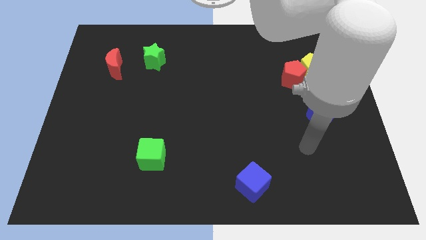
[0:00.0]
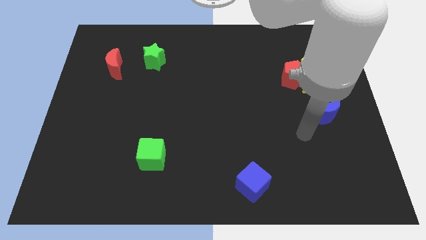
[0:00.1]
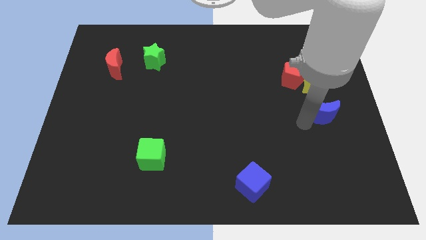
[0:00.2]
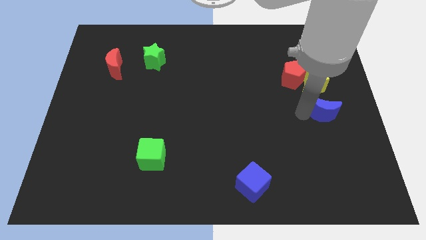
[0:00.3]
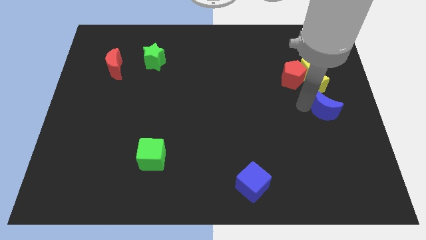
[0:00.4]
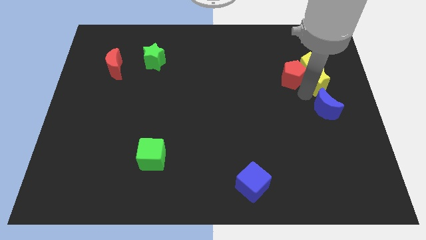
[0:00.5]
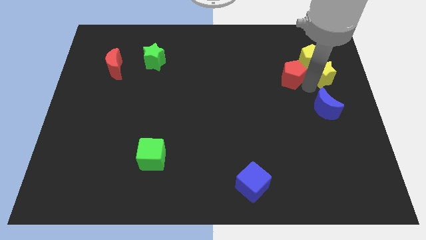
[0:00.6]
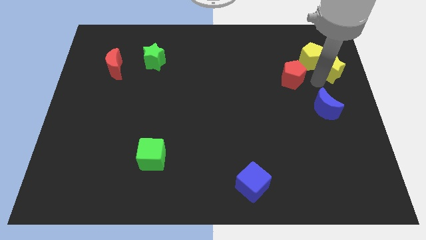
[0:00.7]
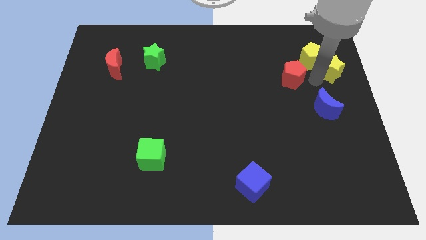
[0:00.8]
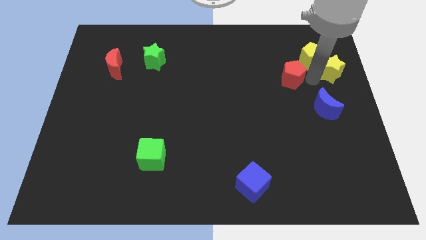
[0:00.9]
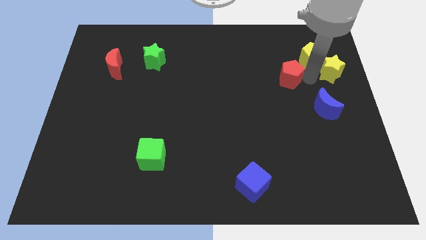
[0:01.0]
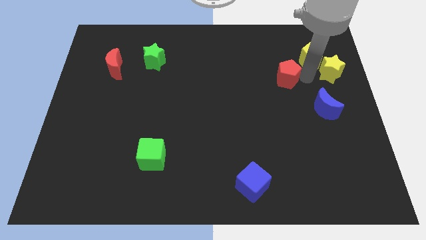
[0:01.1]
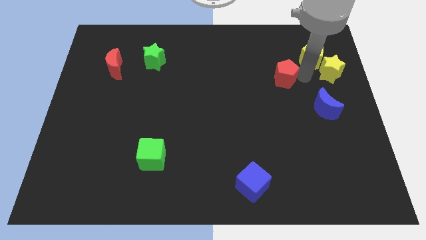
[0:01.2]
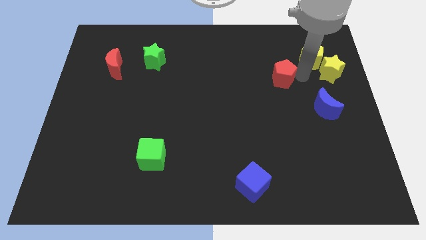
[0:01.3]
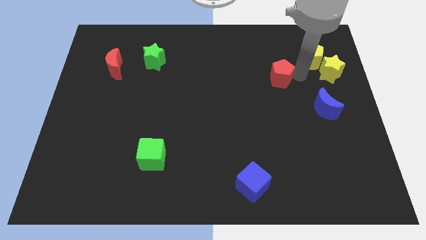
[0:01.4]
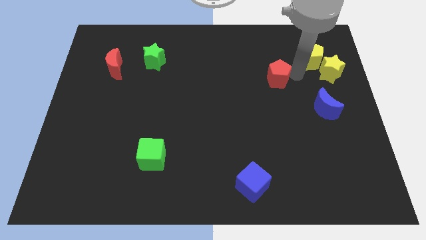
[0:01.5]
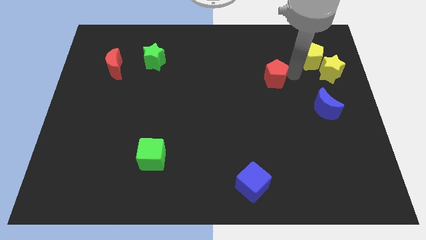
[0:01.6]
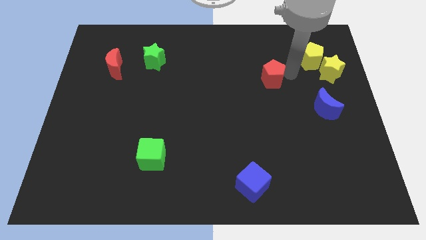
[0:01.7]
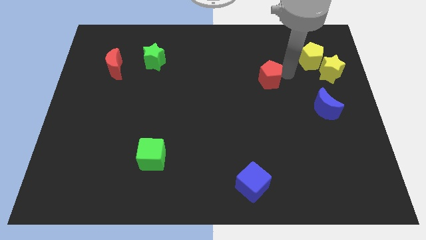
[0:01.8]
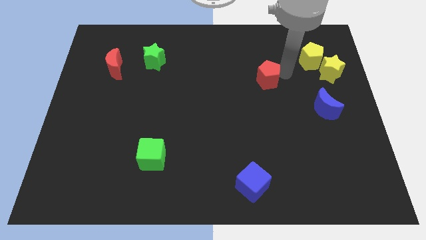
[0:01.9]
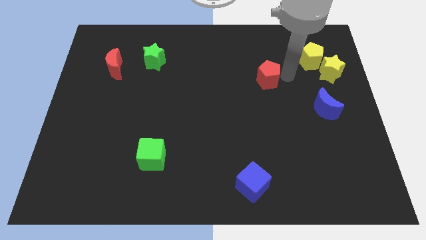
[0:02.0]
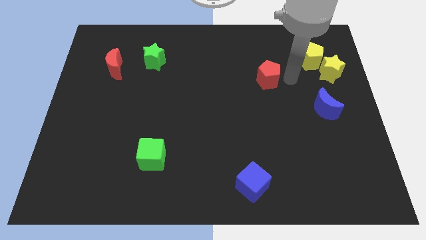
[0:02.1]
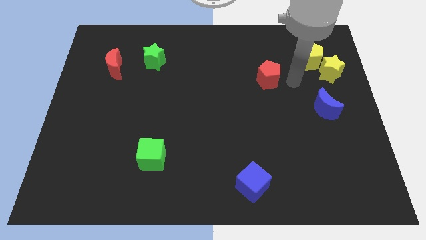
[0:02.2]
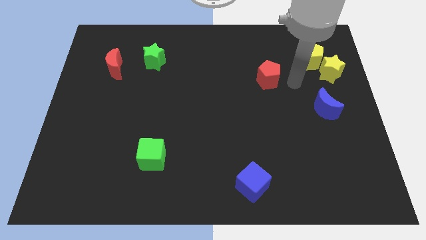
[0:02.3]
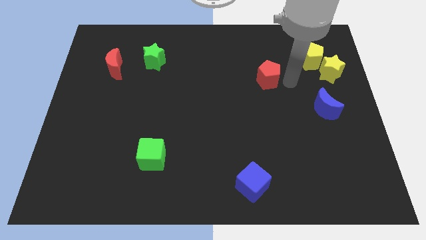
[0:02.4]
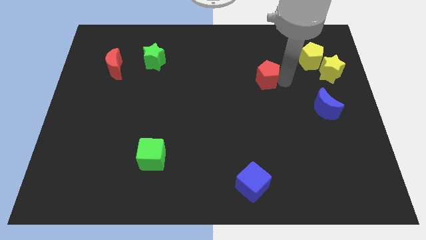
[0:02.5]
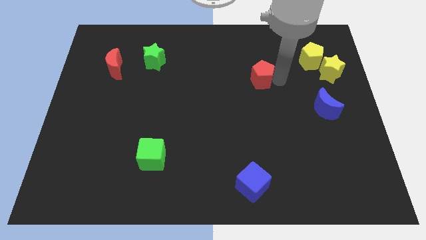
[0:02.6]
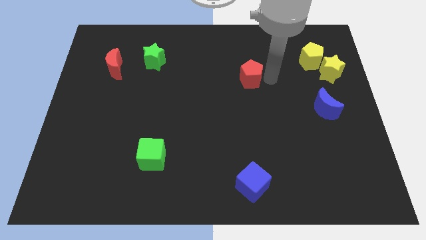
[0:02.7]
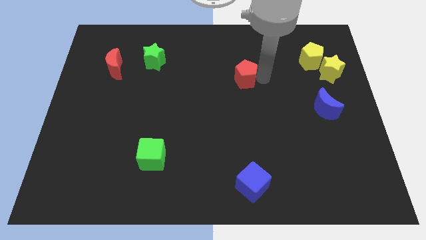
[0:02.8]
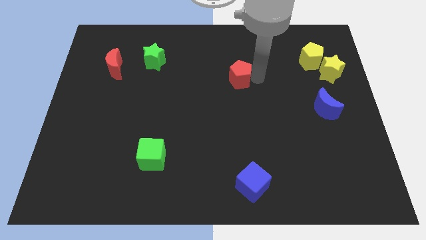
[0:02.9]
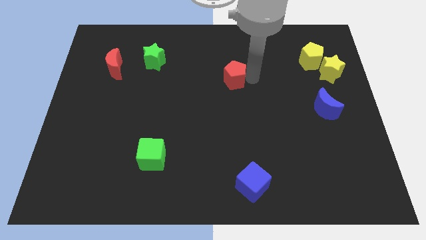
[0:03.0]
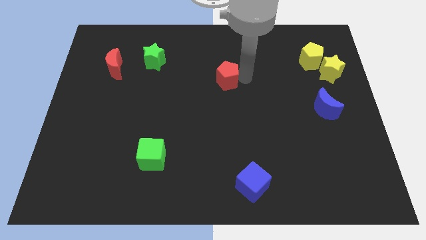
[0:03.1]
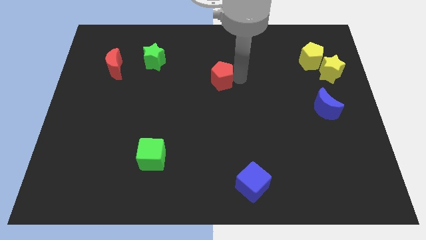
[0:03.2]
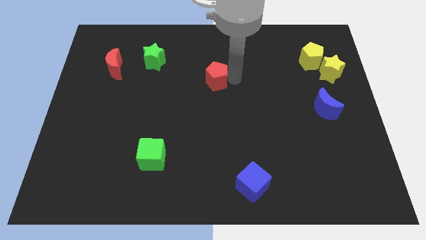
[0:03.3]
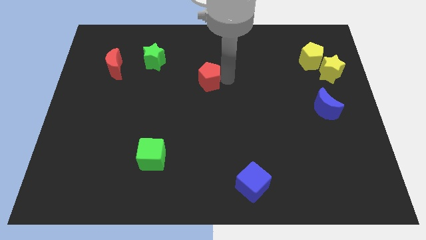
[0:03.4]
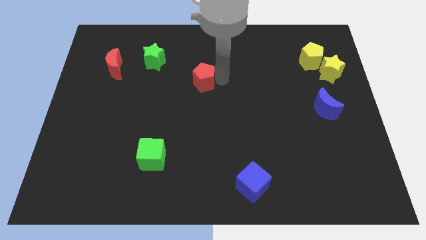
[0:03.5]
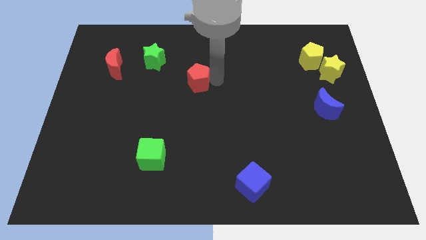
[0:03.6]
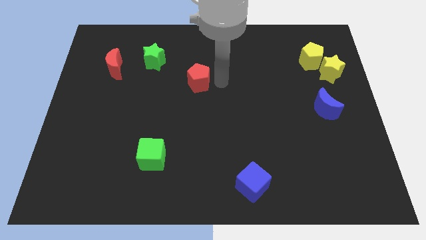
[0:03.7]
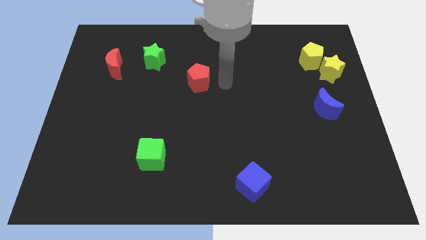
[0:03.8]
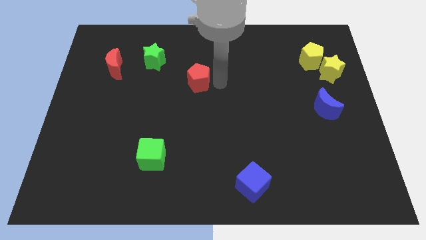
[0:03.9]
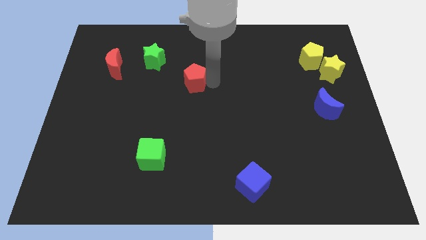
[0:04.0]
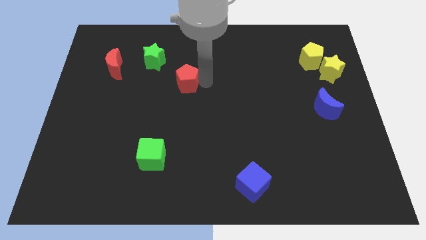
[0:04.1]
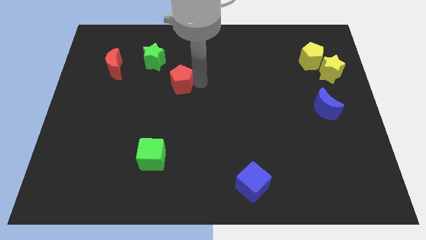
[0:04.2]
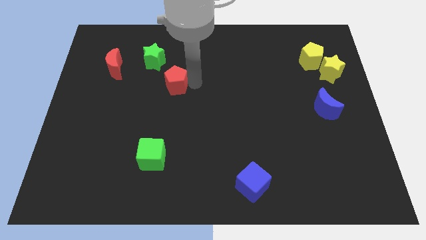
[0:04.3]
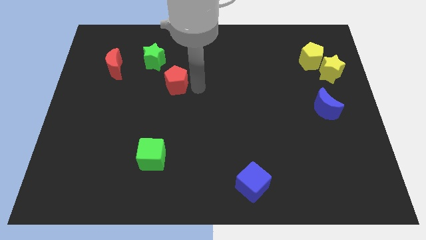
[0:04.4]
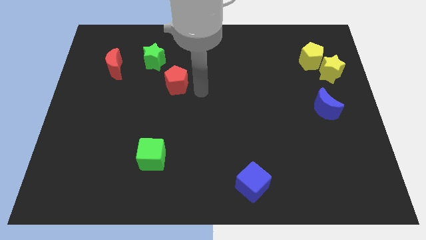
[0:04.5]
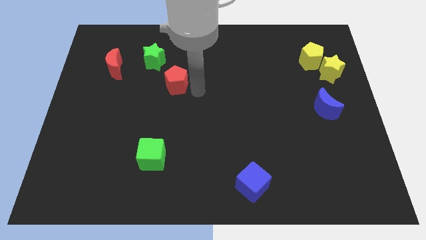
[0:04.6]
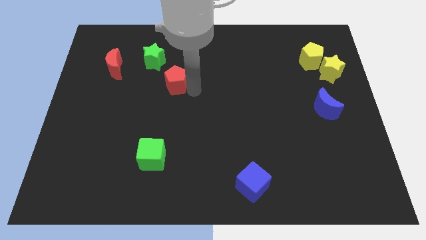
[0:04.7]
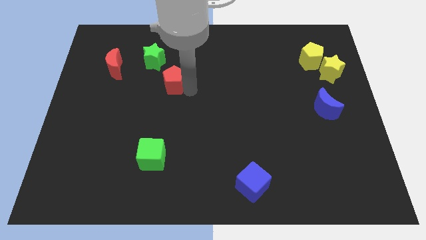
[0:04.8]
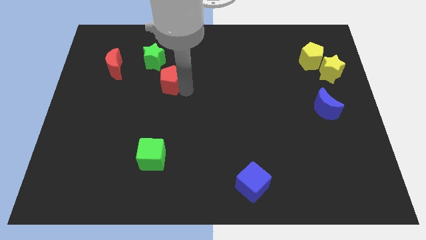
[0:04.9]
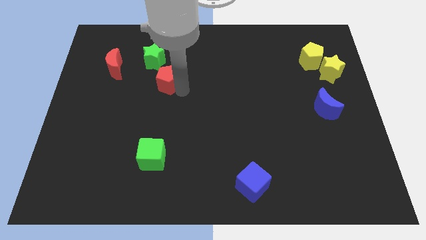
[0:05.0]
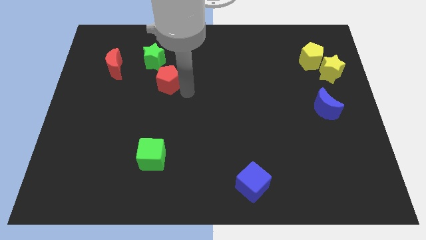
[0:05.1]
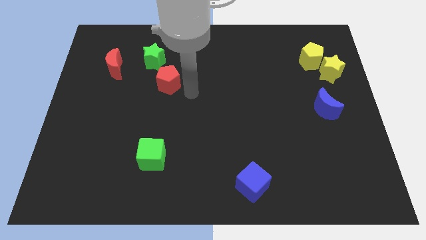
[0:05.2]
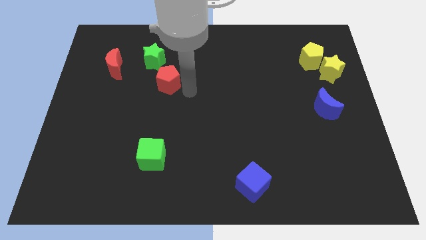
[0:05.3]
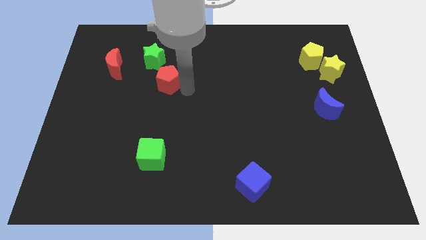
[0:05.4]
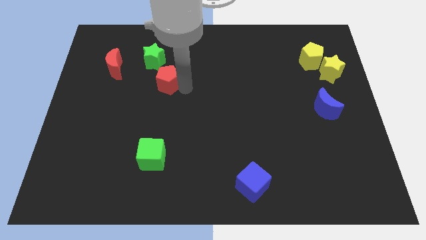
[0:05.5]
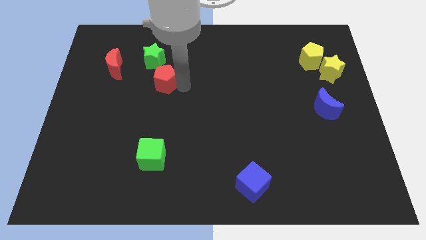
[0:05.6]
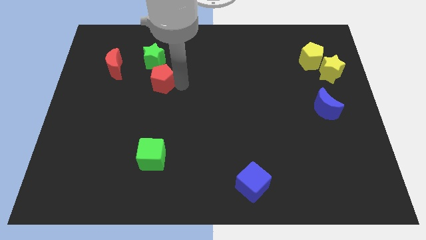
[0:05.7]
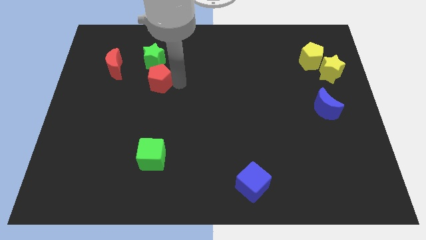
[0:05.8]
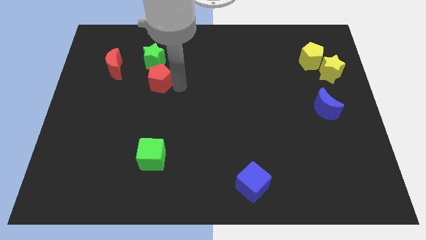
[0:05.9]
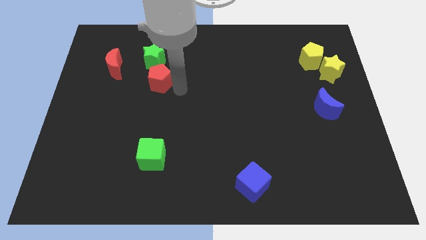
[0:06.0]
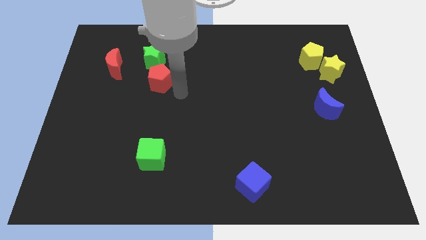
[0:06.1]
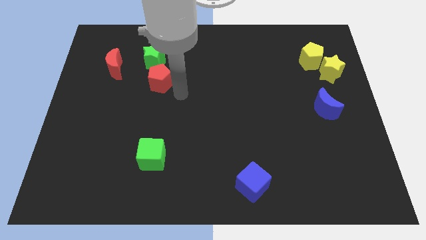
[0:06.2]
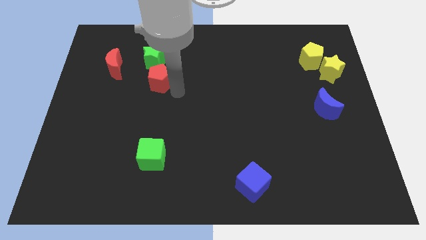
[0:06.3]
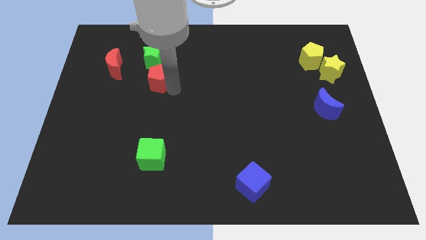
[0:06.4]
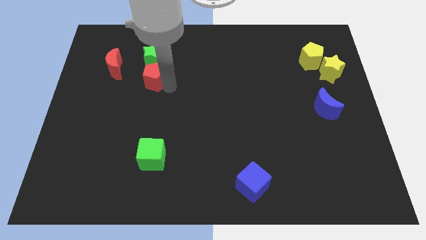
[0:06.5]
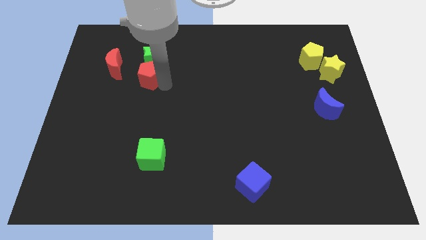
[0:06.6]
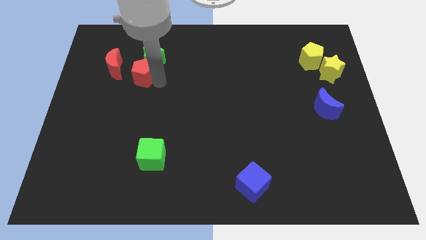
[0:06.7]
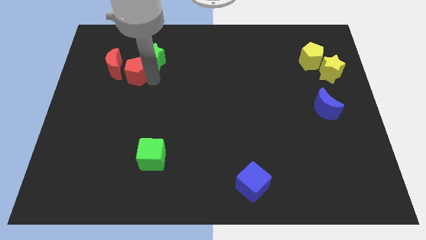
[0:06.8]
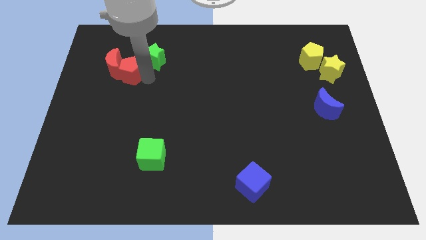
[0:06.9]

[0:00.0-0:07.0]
move the red pentagon next to the red moon
